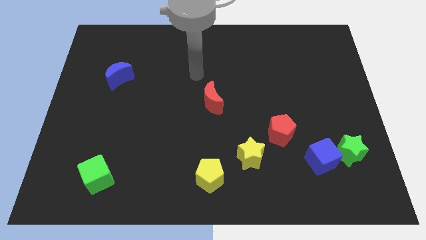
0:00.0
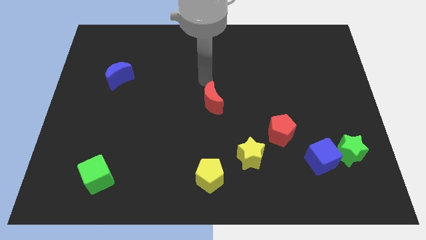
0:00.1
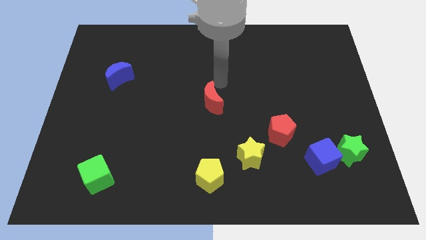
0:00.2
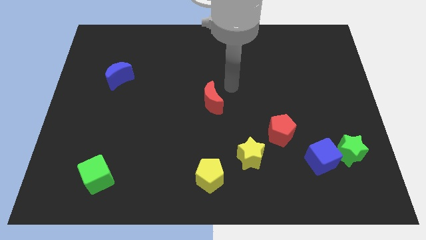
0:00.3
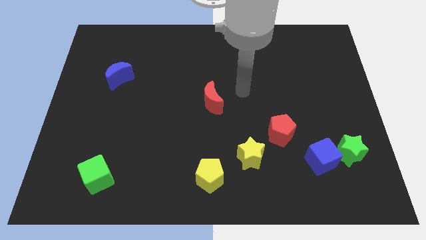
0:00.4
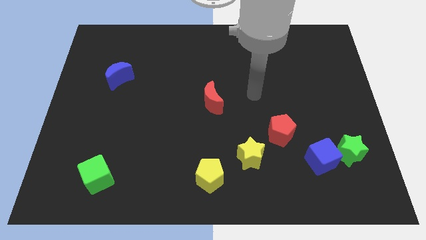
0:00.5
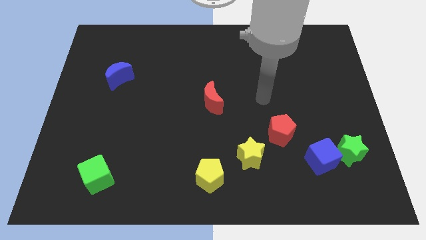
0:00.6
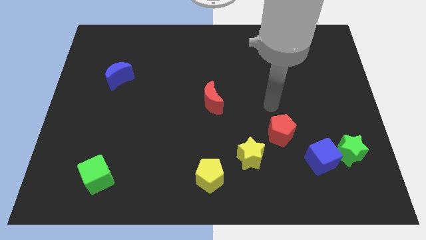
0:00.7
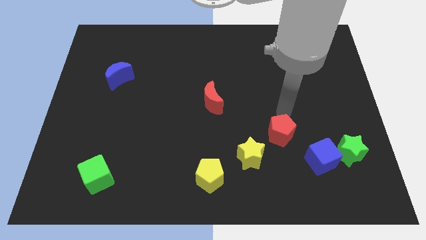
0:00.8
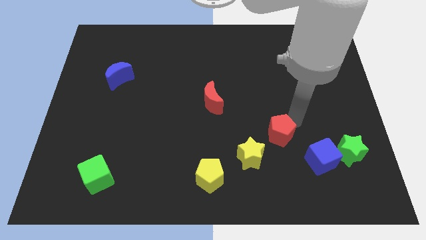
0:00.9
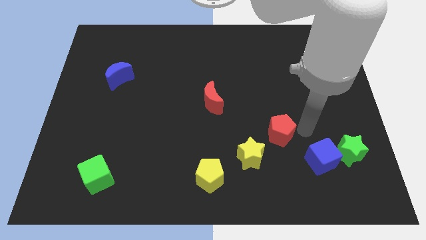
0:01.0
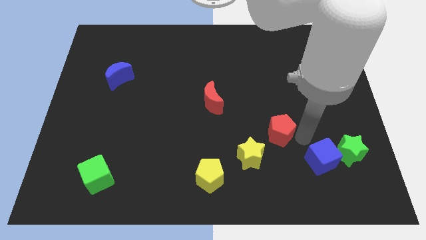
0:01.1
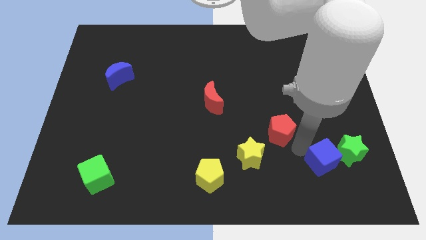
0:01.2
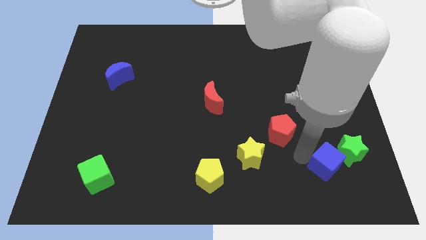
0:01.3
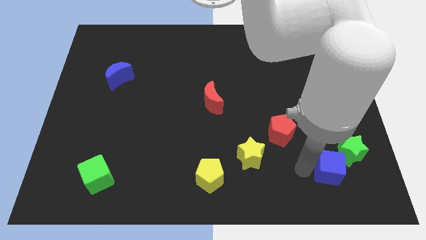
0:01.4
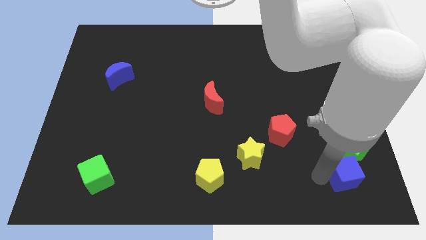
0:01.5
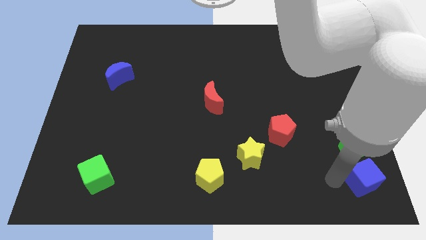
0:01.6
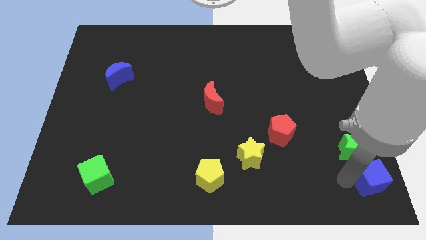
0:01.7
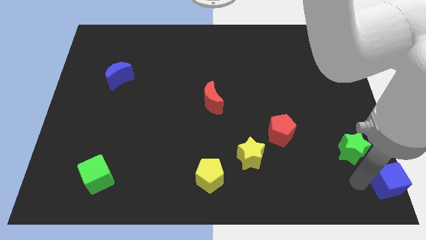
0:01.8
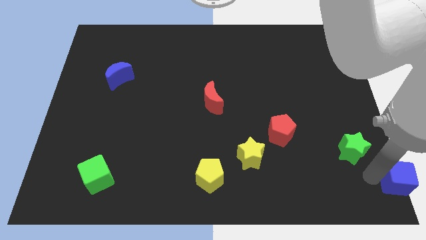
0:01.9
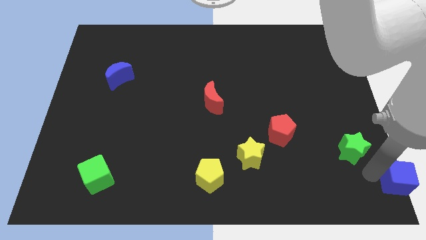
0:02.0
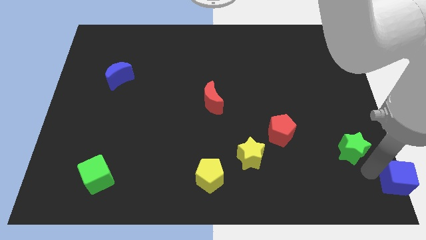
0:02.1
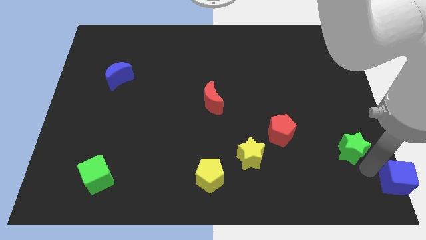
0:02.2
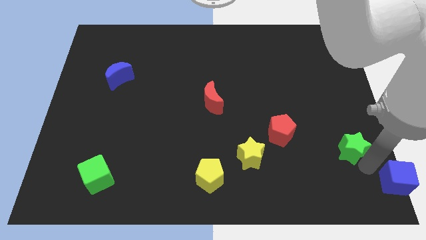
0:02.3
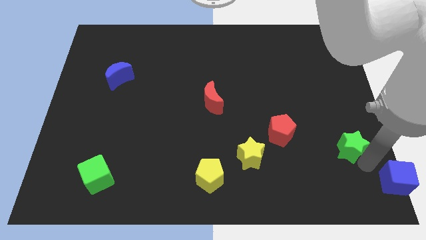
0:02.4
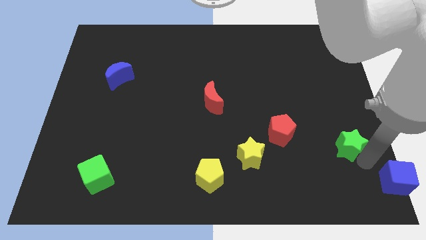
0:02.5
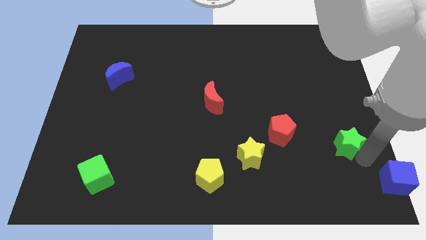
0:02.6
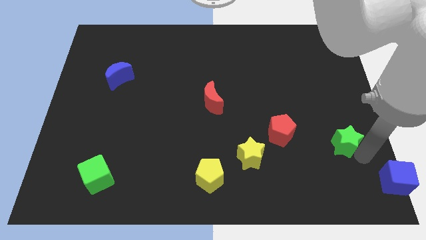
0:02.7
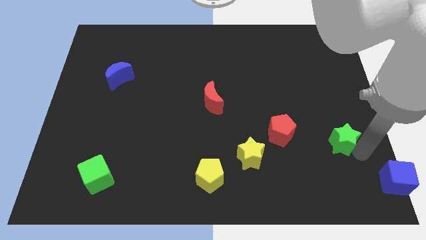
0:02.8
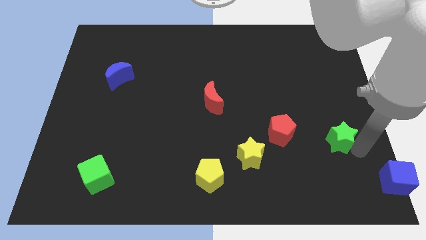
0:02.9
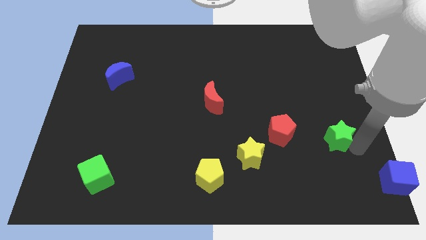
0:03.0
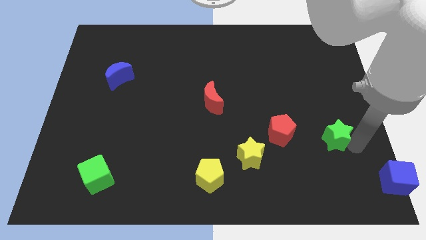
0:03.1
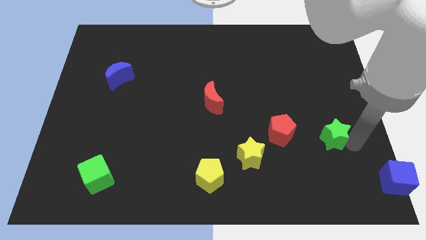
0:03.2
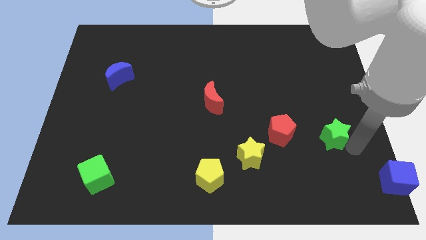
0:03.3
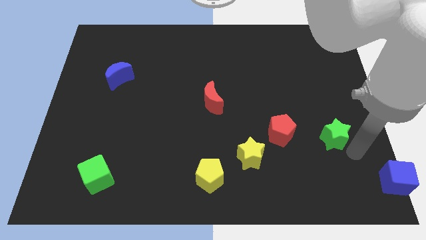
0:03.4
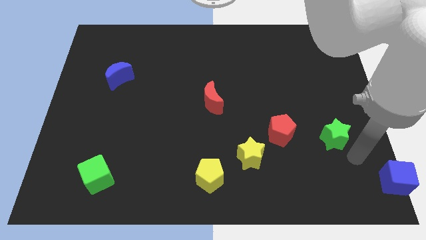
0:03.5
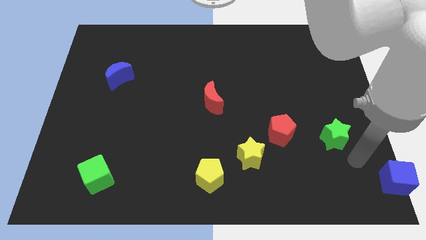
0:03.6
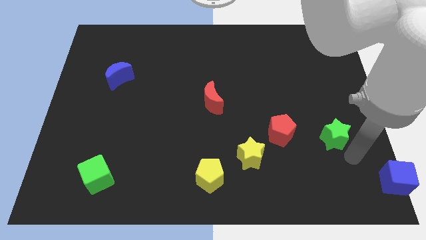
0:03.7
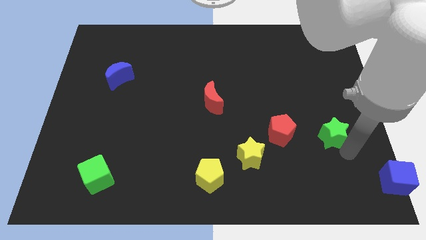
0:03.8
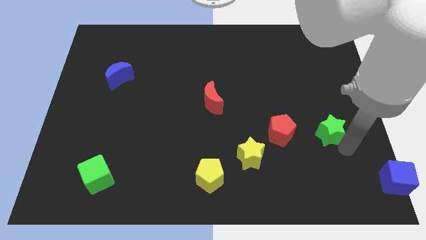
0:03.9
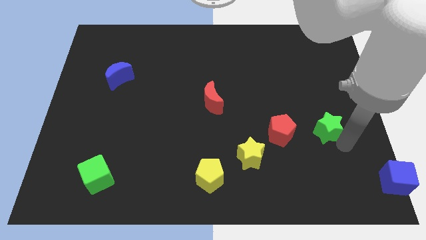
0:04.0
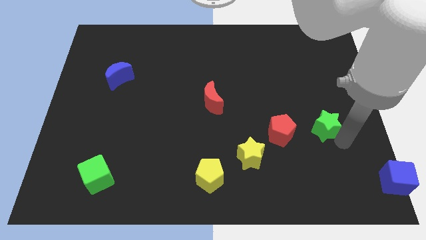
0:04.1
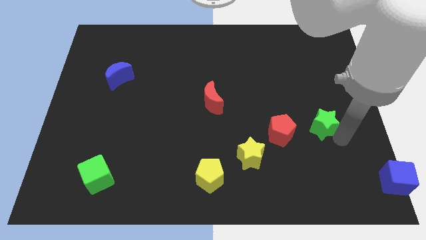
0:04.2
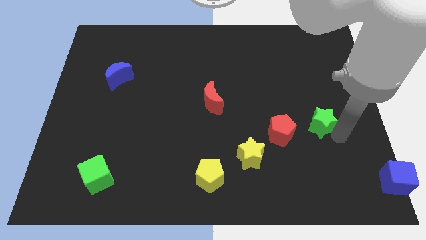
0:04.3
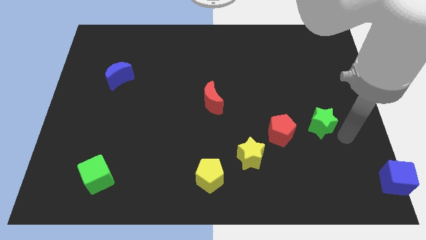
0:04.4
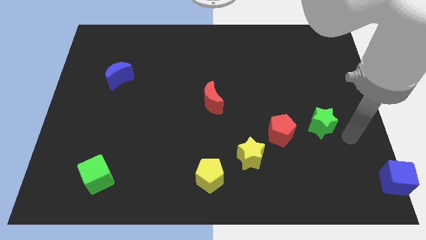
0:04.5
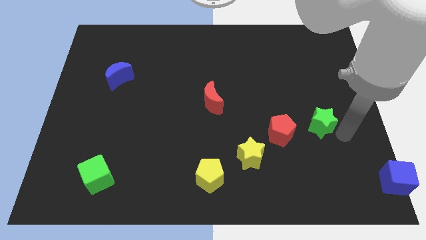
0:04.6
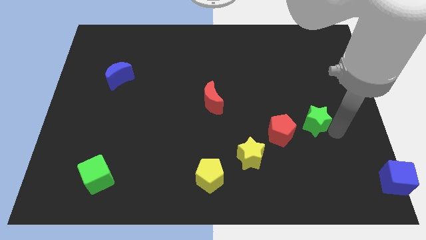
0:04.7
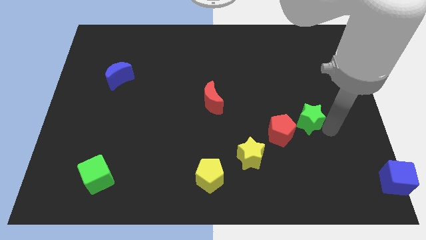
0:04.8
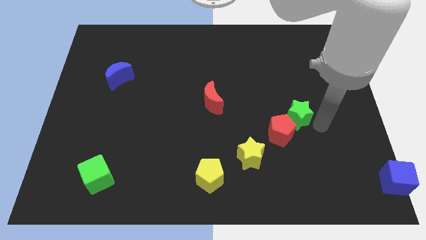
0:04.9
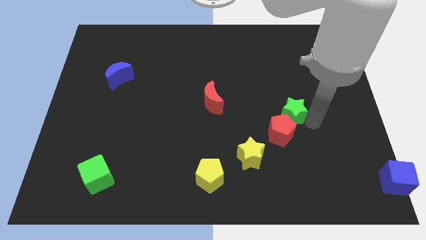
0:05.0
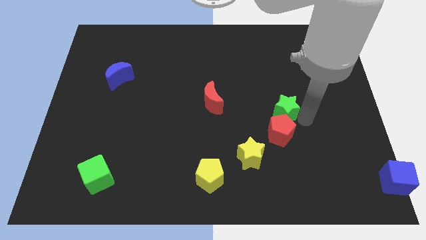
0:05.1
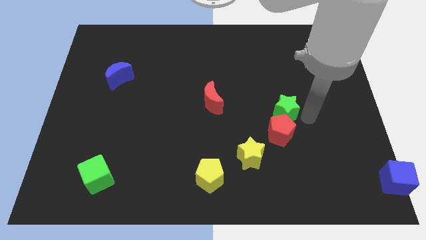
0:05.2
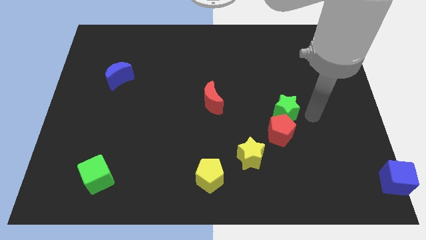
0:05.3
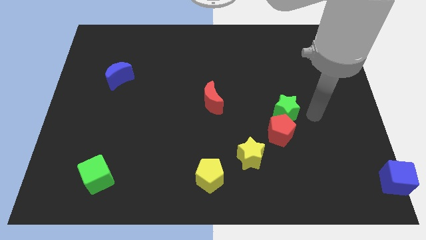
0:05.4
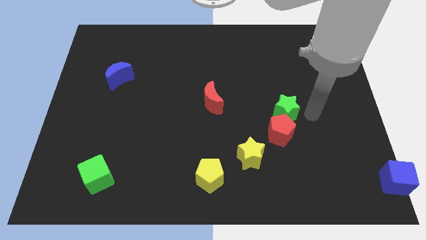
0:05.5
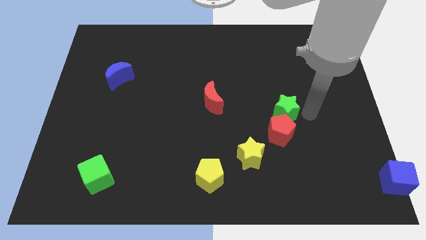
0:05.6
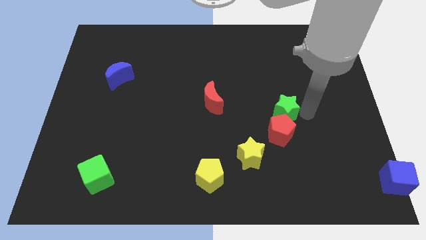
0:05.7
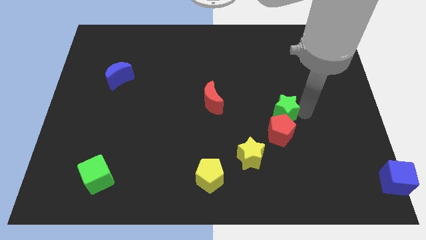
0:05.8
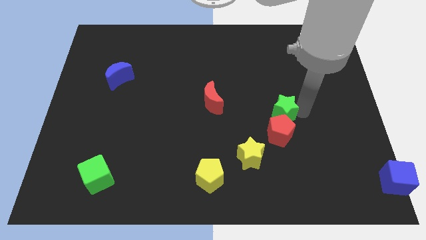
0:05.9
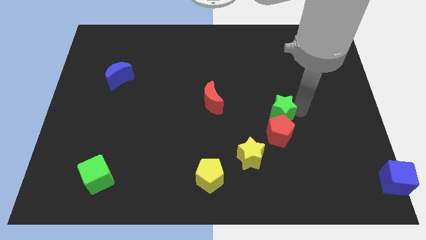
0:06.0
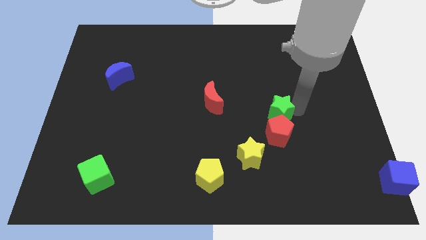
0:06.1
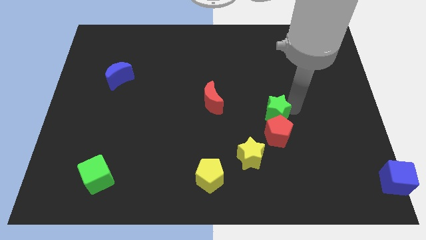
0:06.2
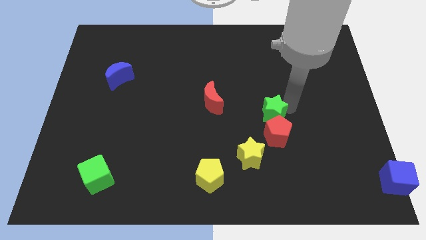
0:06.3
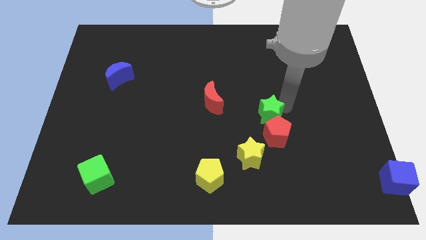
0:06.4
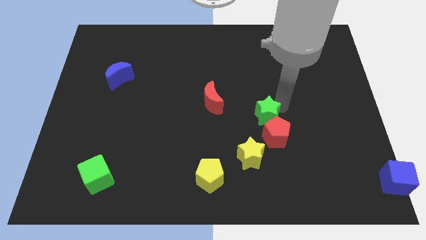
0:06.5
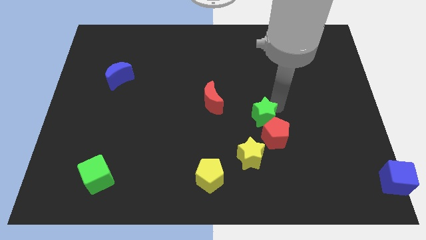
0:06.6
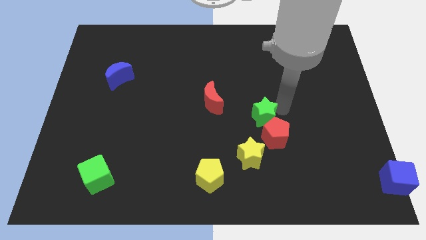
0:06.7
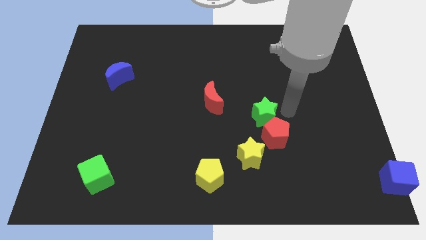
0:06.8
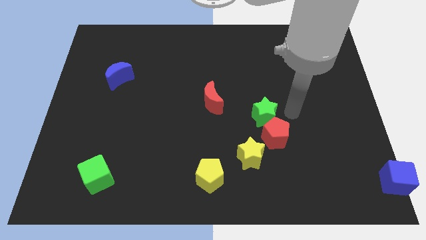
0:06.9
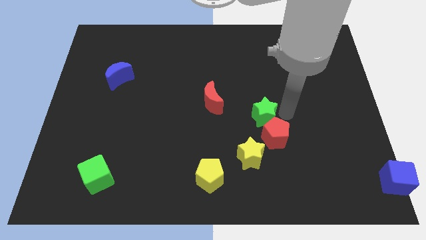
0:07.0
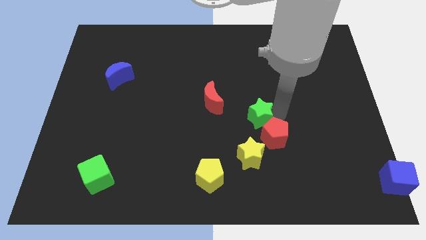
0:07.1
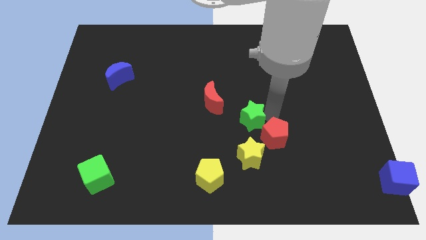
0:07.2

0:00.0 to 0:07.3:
put the green star to the bottom right of the red moon
